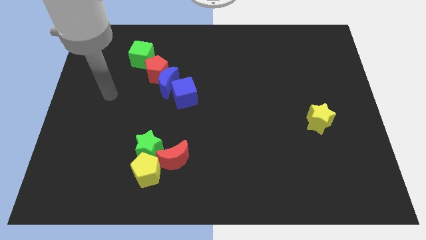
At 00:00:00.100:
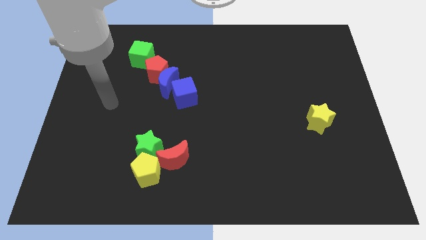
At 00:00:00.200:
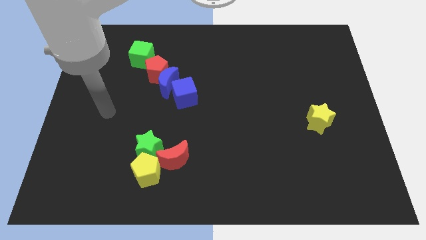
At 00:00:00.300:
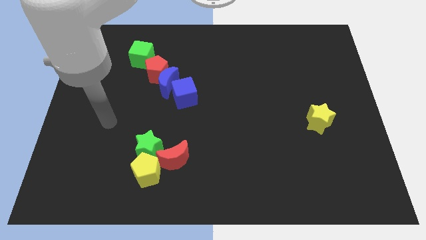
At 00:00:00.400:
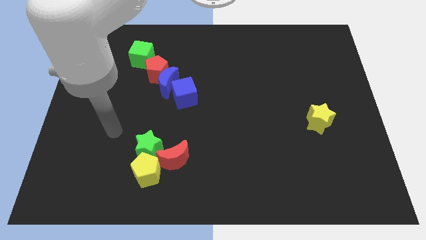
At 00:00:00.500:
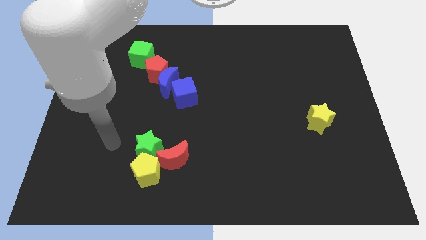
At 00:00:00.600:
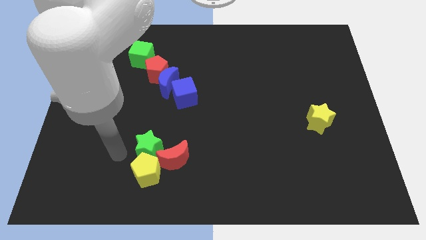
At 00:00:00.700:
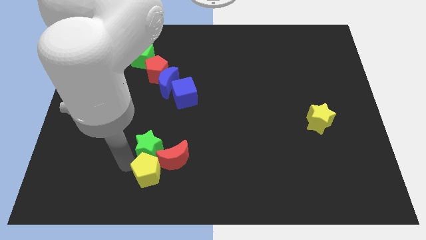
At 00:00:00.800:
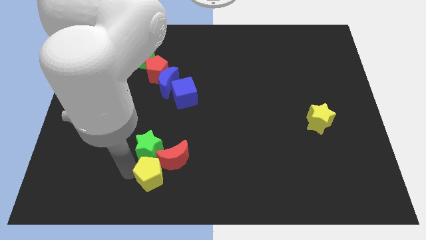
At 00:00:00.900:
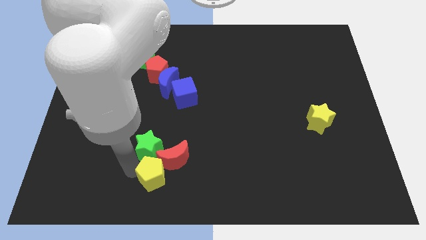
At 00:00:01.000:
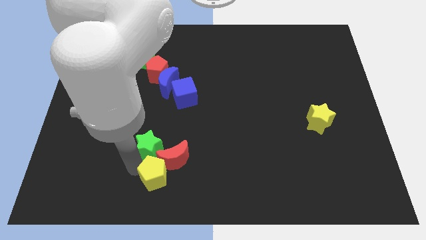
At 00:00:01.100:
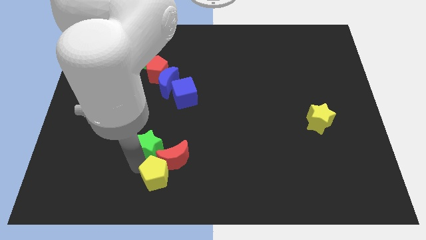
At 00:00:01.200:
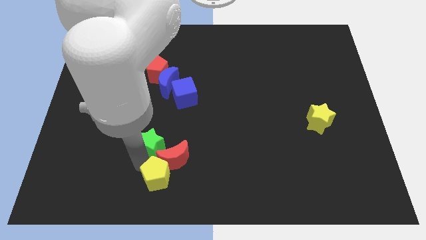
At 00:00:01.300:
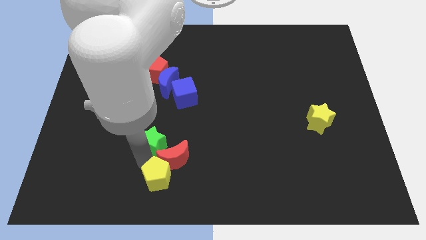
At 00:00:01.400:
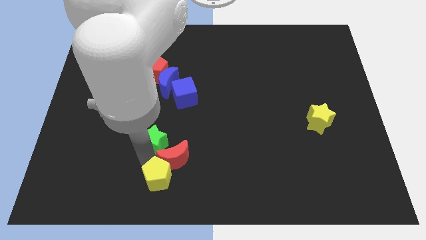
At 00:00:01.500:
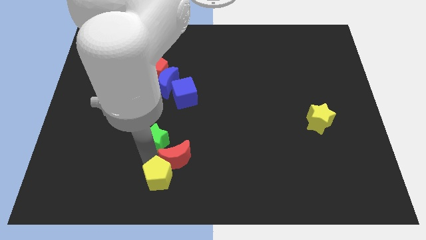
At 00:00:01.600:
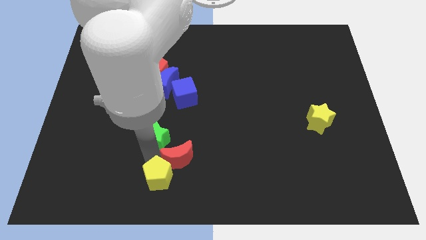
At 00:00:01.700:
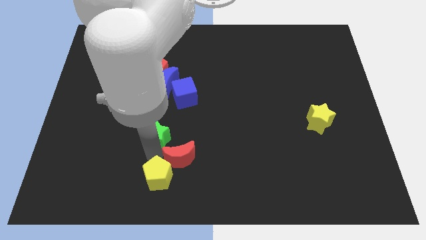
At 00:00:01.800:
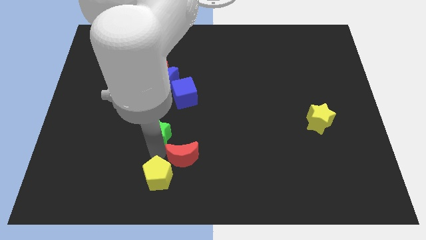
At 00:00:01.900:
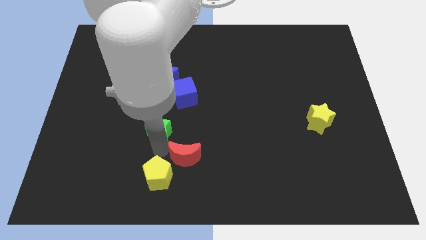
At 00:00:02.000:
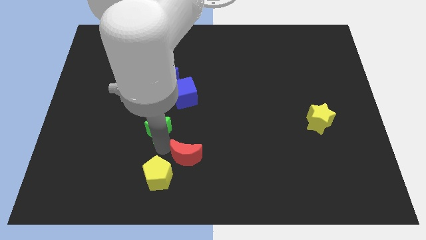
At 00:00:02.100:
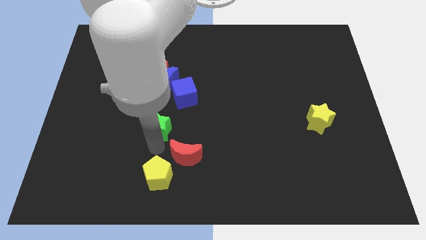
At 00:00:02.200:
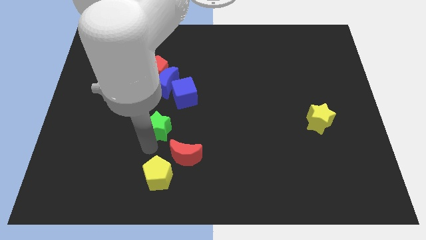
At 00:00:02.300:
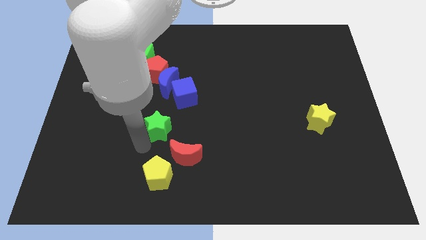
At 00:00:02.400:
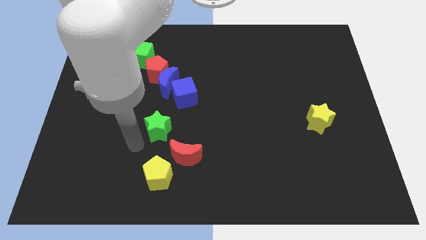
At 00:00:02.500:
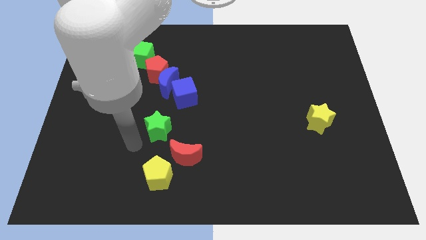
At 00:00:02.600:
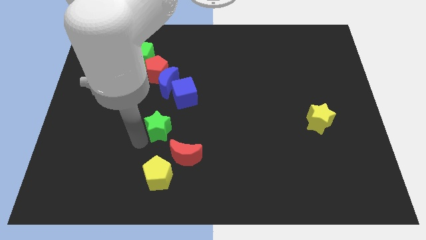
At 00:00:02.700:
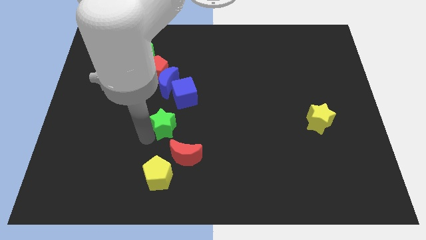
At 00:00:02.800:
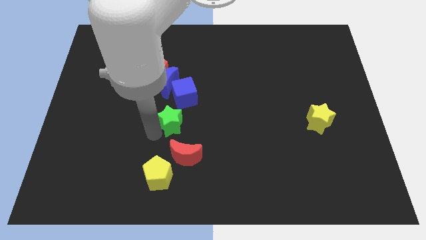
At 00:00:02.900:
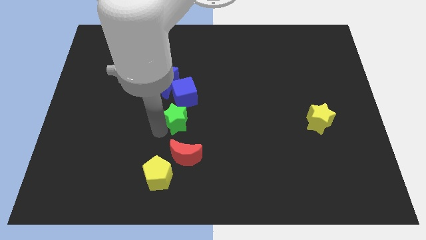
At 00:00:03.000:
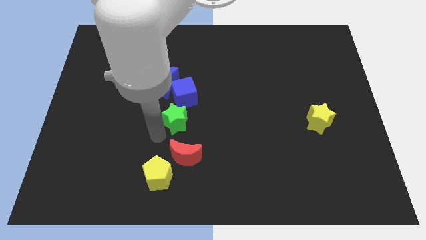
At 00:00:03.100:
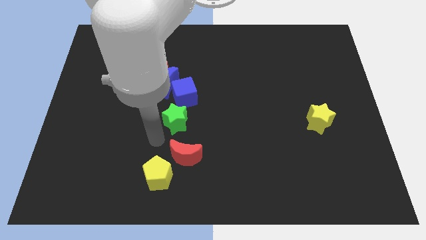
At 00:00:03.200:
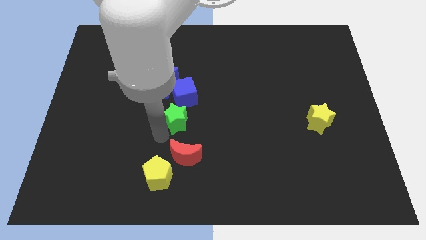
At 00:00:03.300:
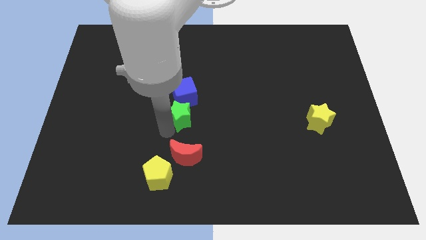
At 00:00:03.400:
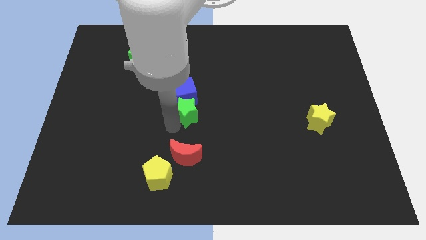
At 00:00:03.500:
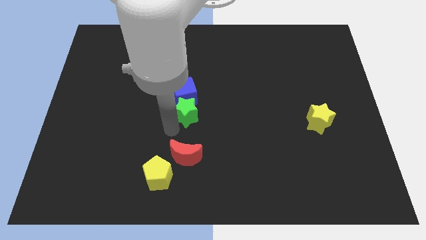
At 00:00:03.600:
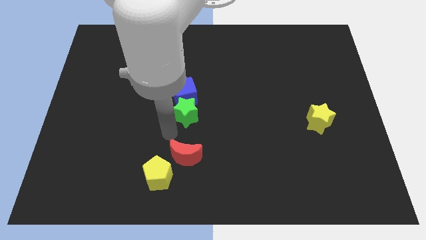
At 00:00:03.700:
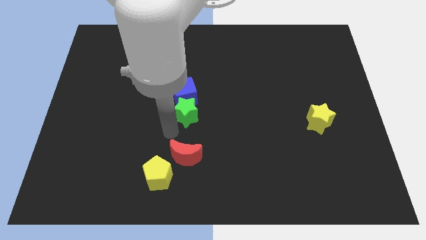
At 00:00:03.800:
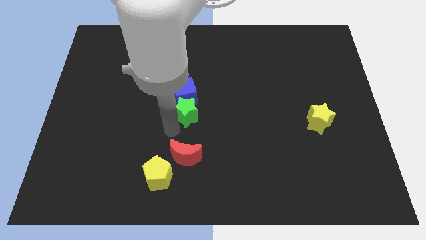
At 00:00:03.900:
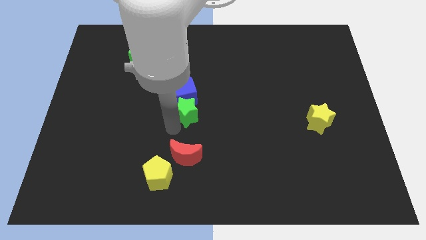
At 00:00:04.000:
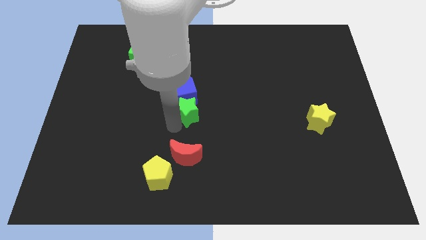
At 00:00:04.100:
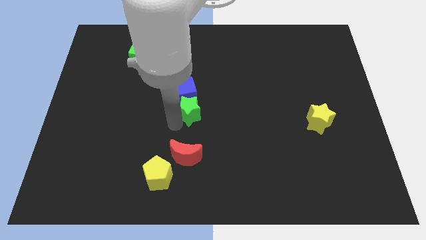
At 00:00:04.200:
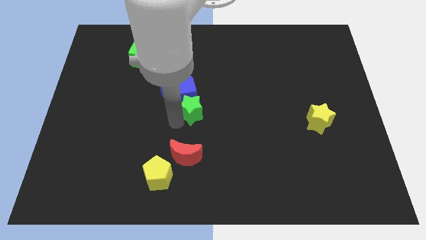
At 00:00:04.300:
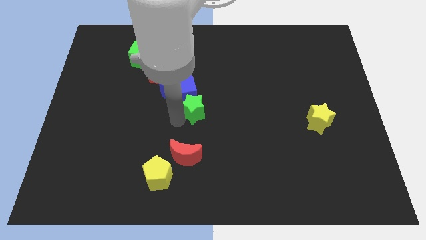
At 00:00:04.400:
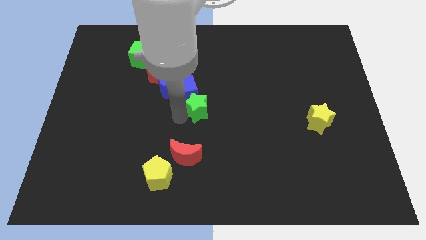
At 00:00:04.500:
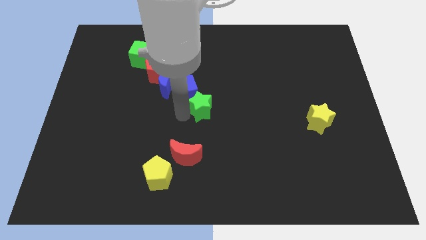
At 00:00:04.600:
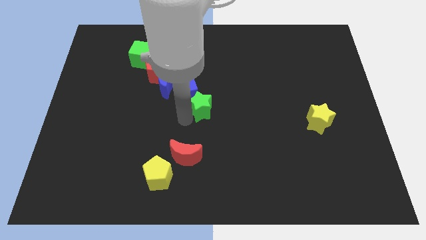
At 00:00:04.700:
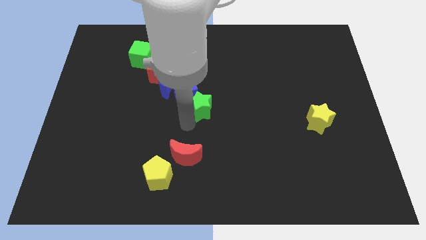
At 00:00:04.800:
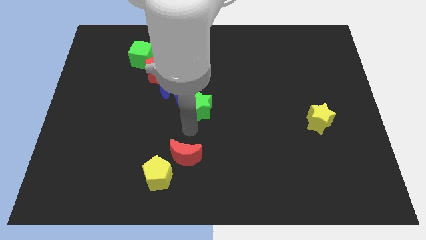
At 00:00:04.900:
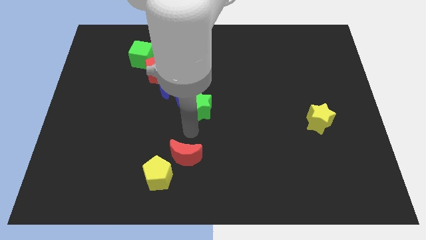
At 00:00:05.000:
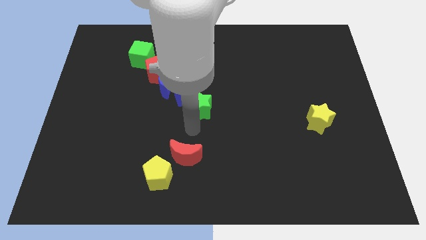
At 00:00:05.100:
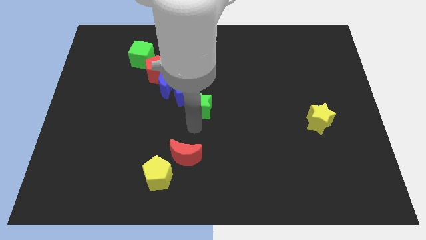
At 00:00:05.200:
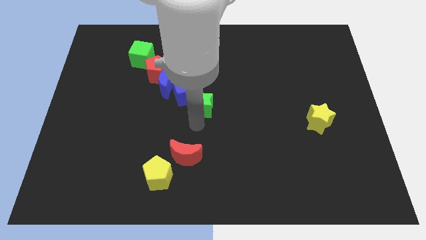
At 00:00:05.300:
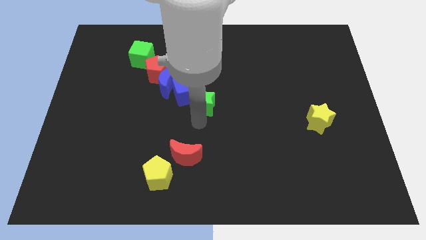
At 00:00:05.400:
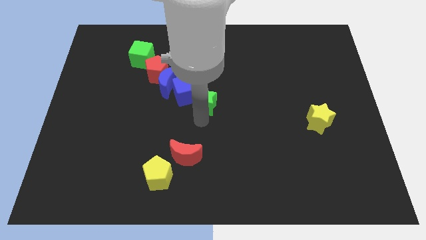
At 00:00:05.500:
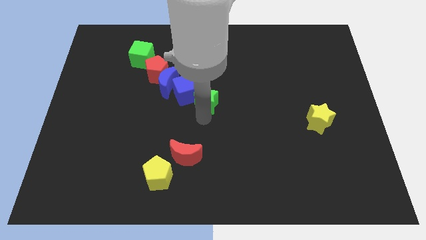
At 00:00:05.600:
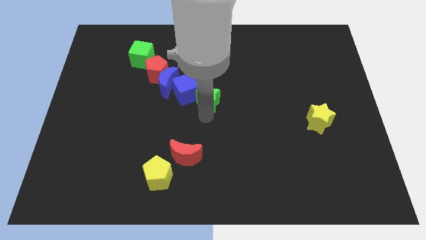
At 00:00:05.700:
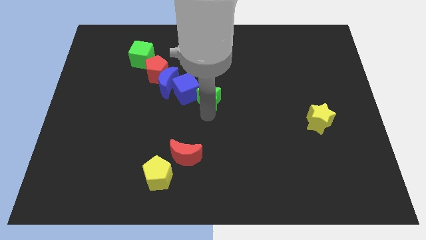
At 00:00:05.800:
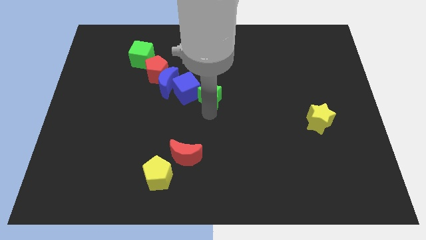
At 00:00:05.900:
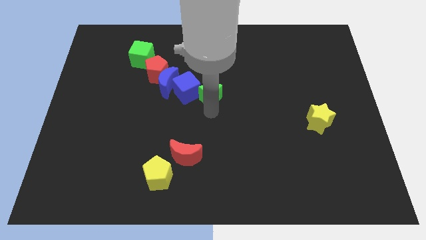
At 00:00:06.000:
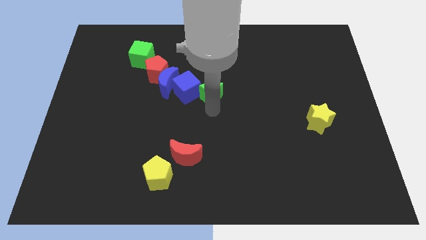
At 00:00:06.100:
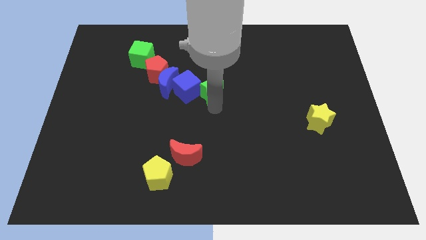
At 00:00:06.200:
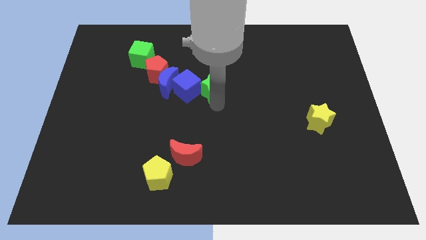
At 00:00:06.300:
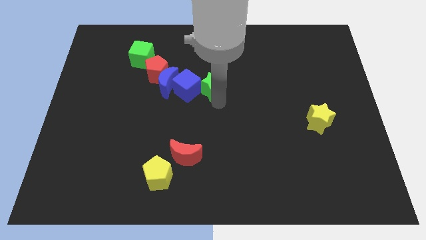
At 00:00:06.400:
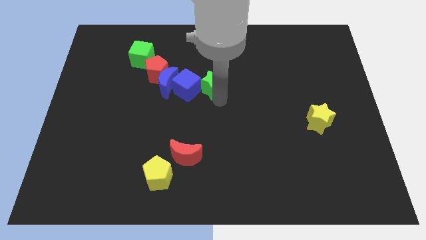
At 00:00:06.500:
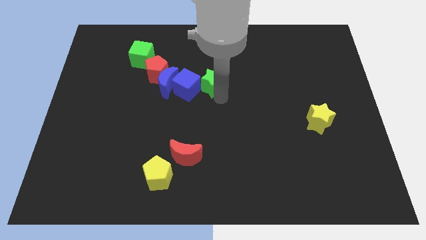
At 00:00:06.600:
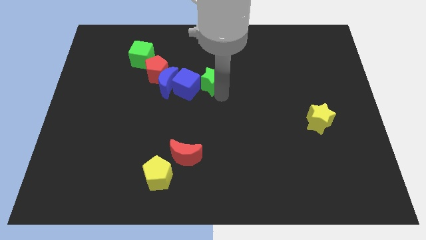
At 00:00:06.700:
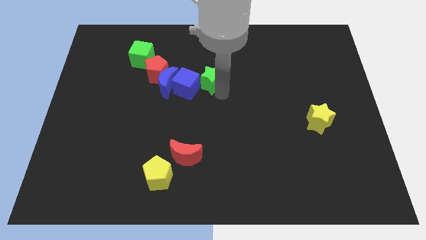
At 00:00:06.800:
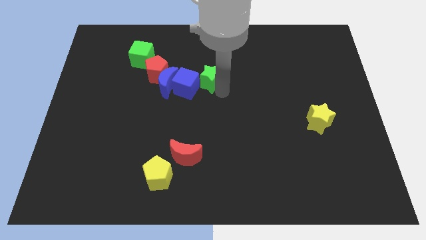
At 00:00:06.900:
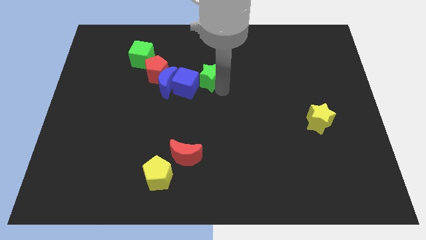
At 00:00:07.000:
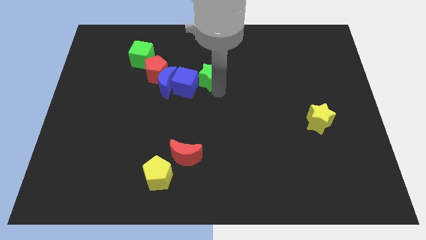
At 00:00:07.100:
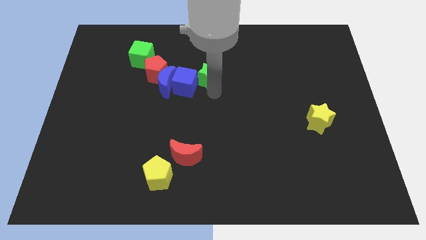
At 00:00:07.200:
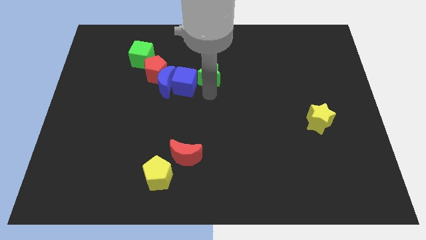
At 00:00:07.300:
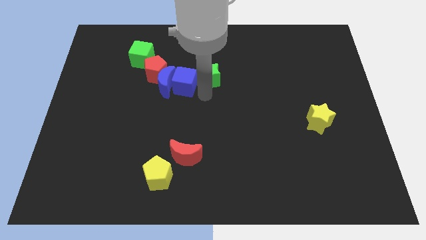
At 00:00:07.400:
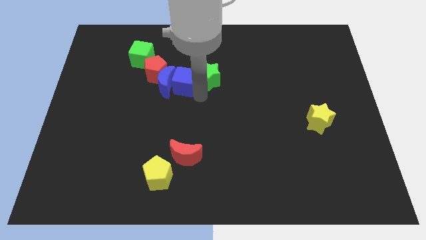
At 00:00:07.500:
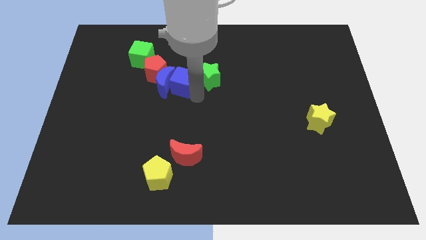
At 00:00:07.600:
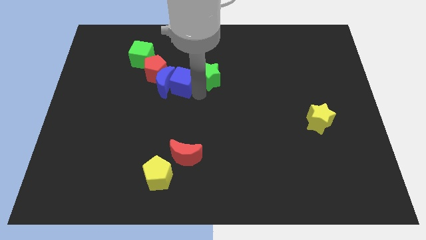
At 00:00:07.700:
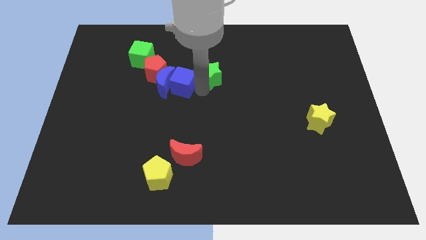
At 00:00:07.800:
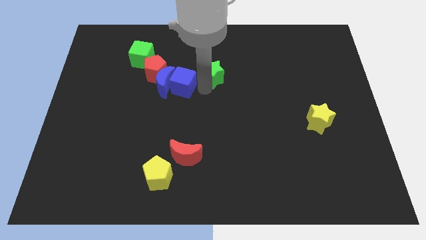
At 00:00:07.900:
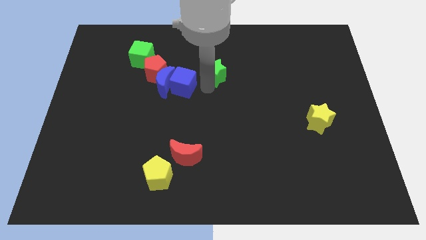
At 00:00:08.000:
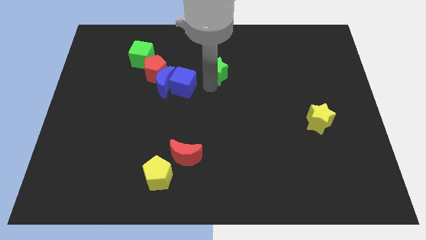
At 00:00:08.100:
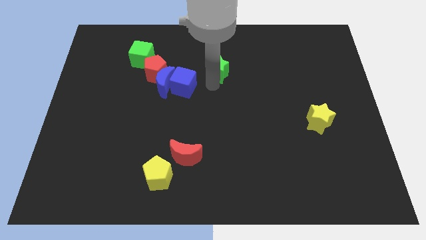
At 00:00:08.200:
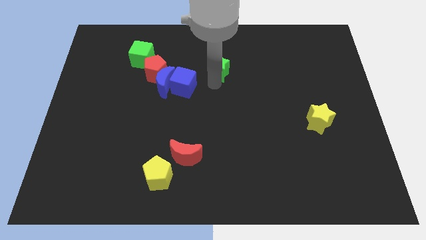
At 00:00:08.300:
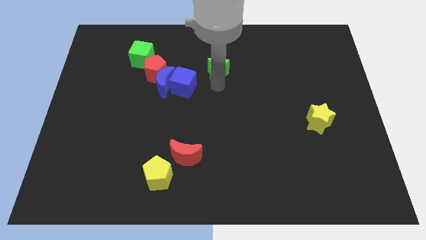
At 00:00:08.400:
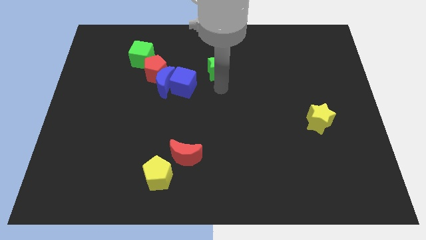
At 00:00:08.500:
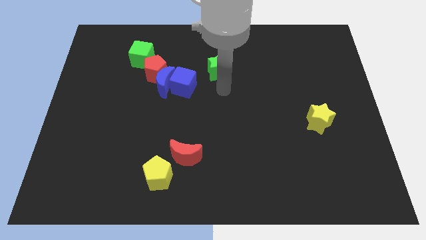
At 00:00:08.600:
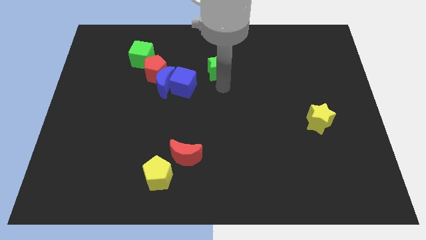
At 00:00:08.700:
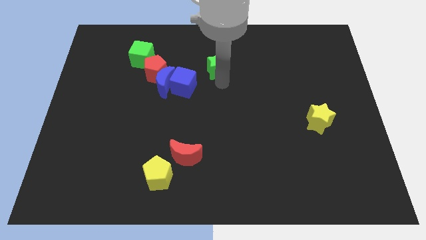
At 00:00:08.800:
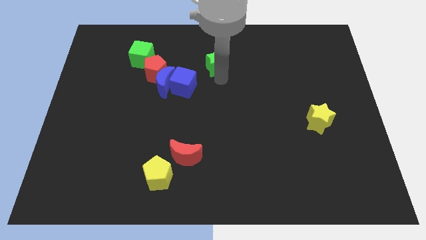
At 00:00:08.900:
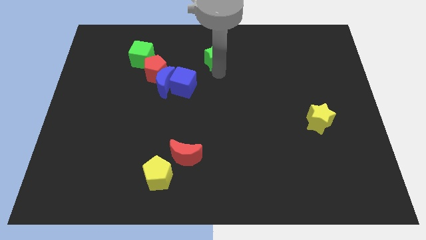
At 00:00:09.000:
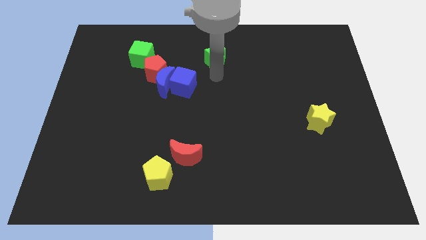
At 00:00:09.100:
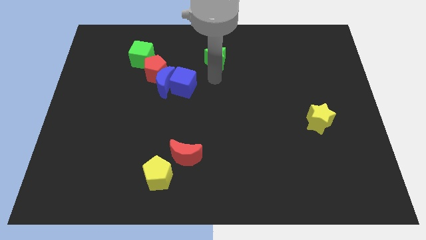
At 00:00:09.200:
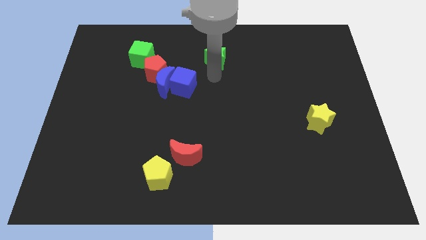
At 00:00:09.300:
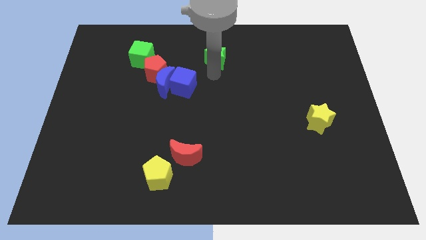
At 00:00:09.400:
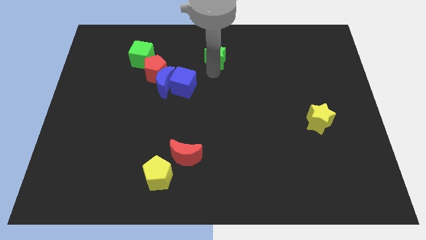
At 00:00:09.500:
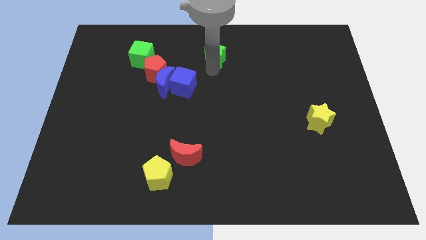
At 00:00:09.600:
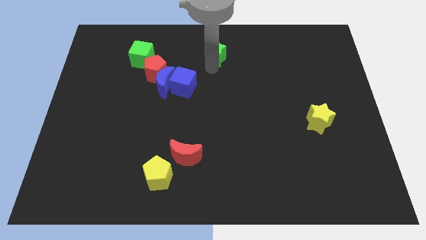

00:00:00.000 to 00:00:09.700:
slide the green star to the top
